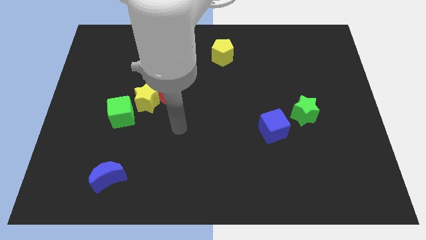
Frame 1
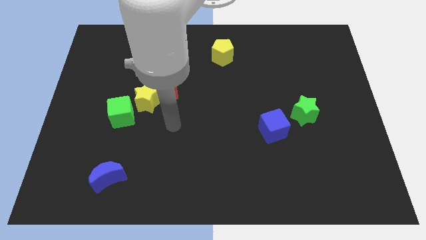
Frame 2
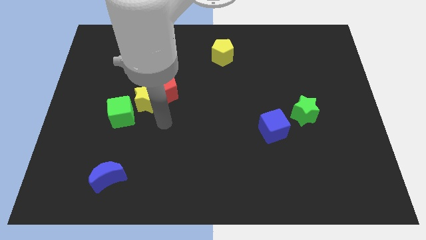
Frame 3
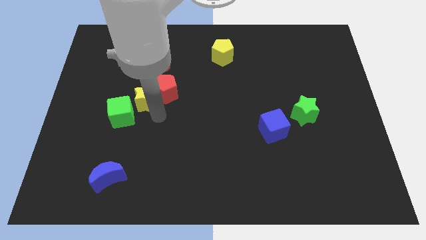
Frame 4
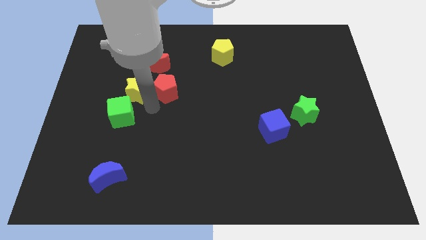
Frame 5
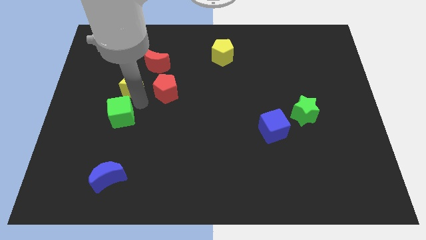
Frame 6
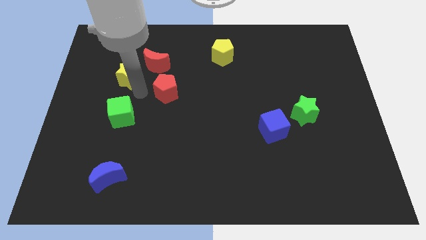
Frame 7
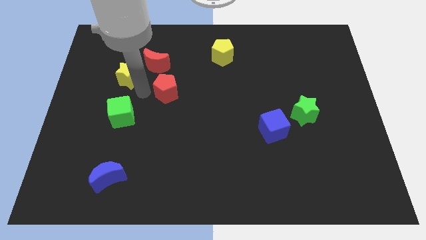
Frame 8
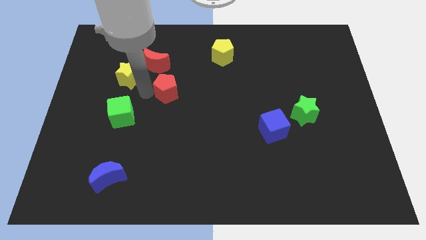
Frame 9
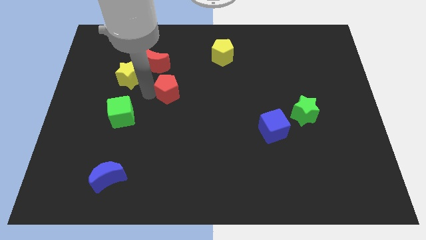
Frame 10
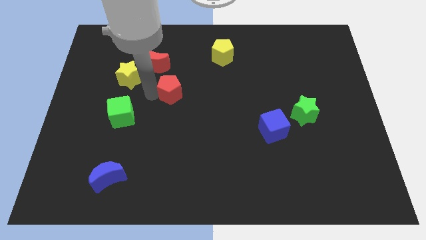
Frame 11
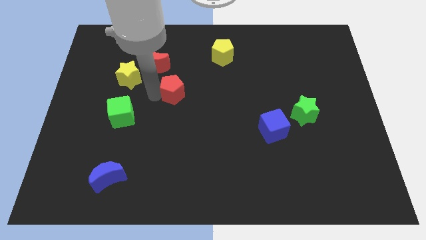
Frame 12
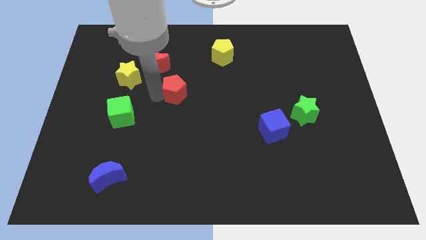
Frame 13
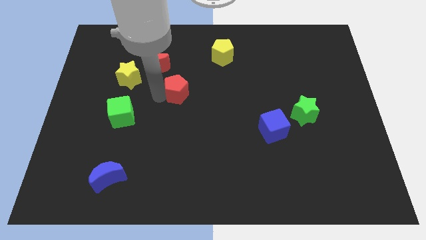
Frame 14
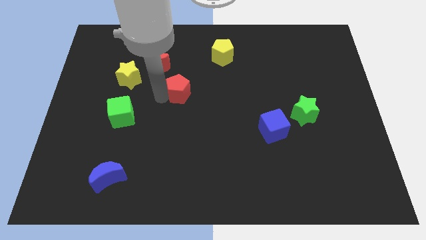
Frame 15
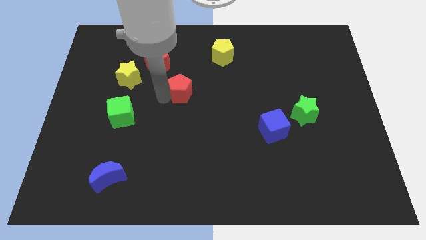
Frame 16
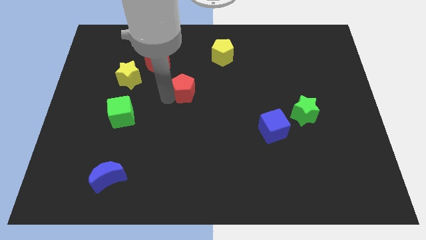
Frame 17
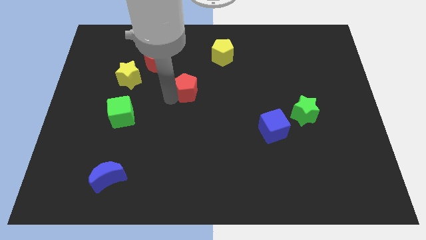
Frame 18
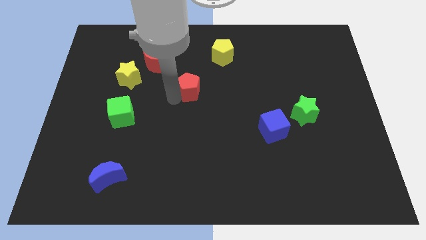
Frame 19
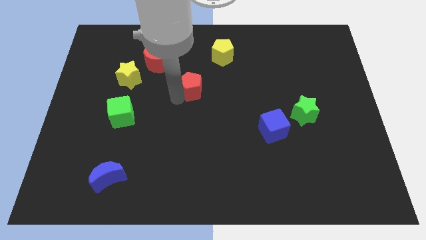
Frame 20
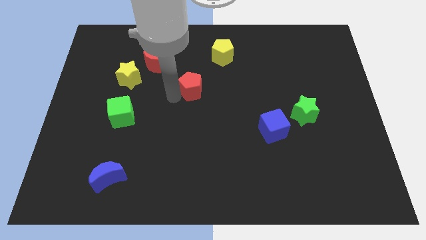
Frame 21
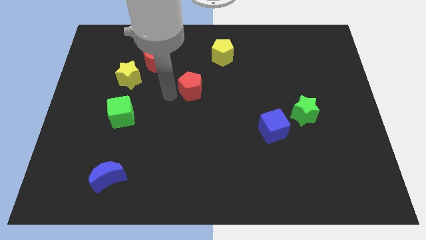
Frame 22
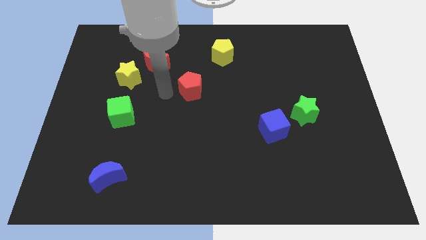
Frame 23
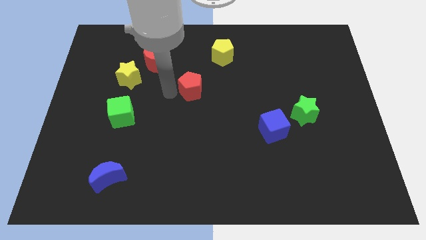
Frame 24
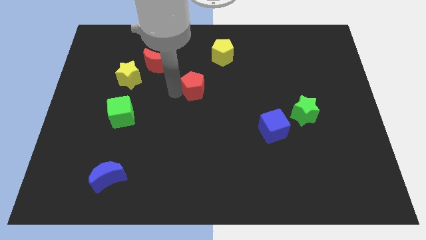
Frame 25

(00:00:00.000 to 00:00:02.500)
slide the red pentagon to the right a little bit

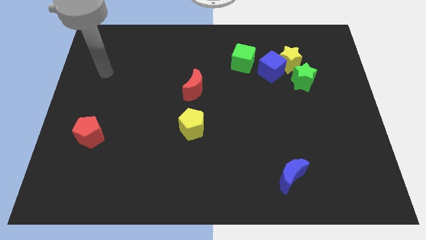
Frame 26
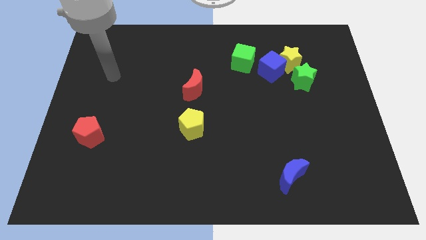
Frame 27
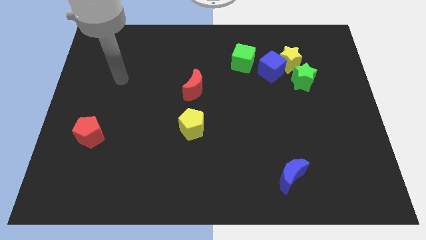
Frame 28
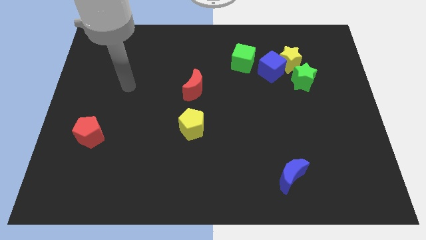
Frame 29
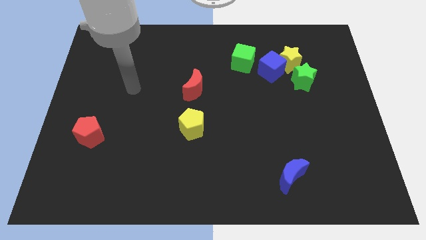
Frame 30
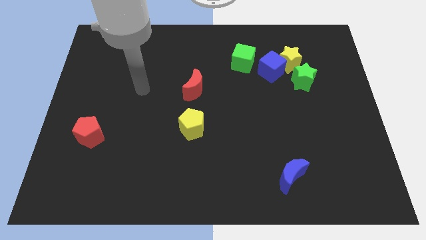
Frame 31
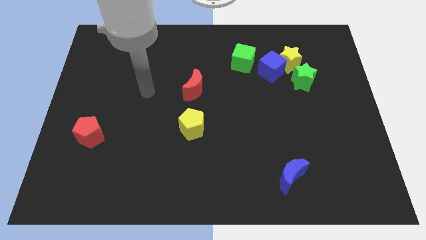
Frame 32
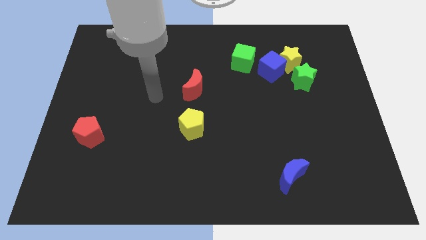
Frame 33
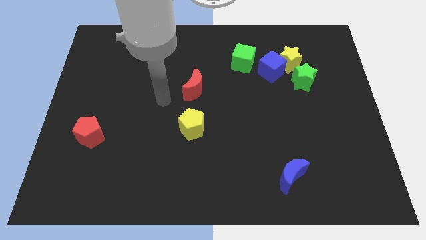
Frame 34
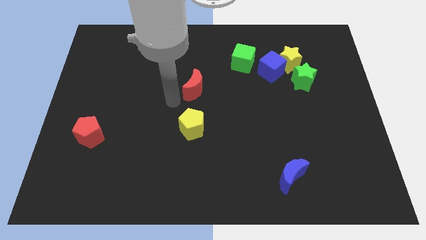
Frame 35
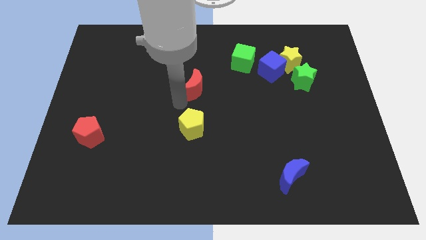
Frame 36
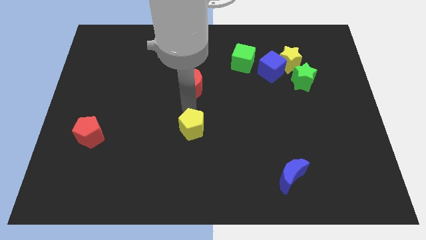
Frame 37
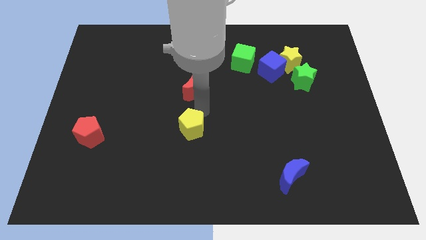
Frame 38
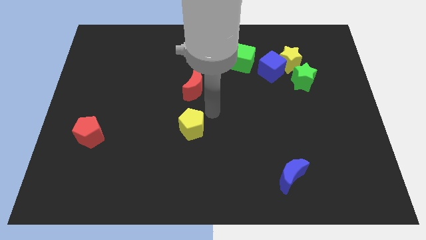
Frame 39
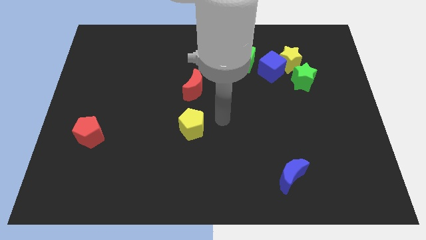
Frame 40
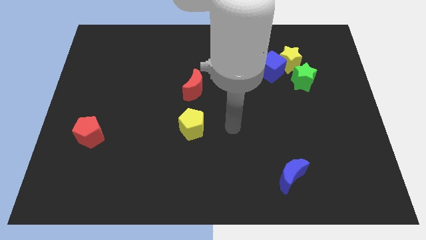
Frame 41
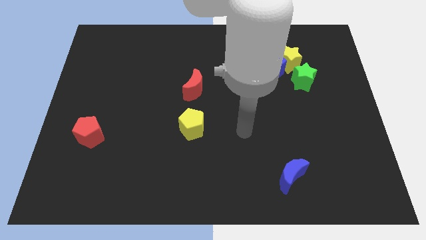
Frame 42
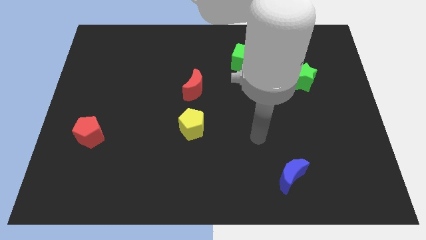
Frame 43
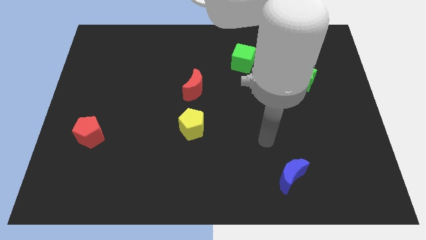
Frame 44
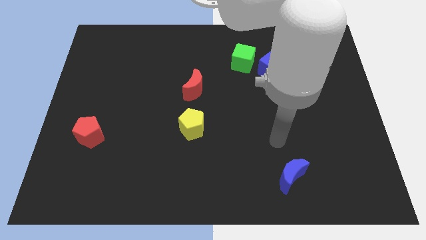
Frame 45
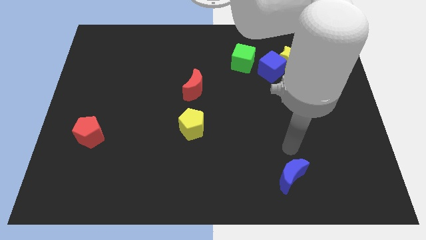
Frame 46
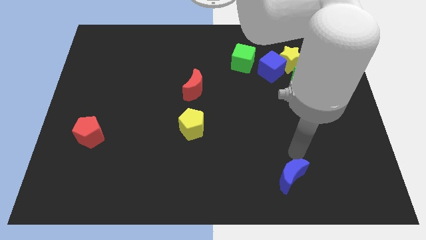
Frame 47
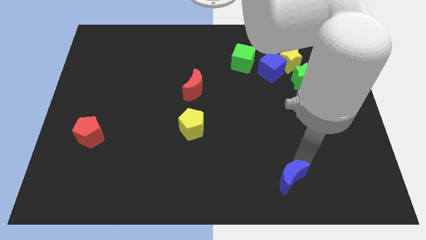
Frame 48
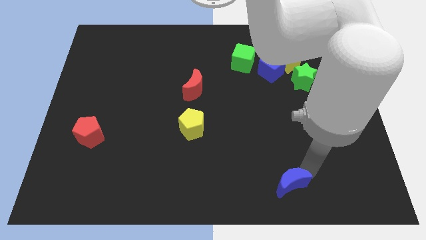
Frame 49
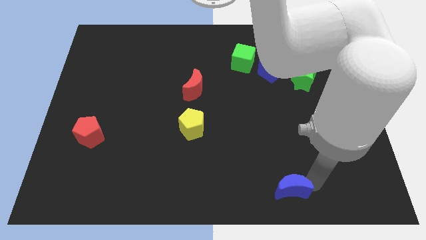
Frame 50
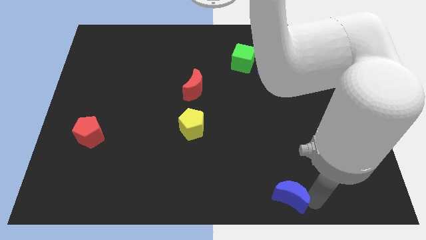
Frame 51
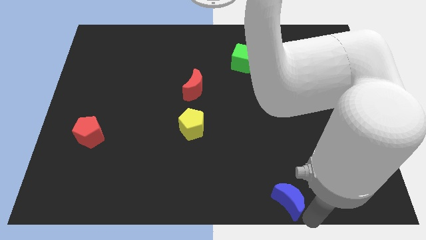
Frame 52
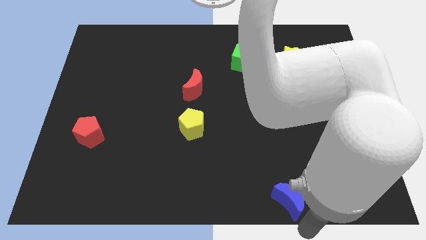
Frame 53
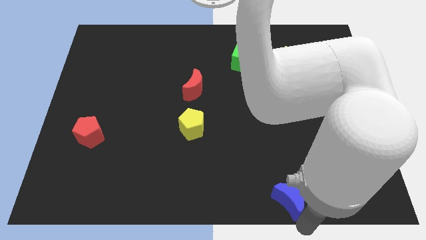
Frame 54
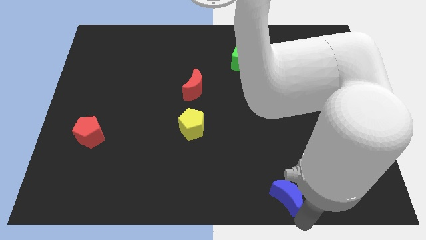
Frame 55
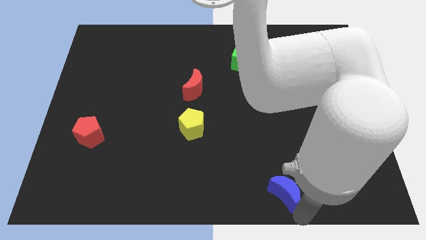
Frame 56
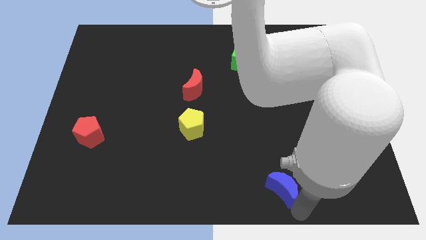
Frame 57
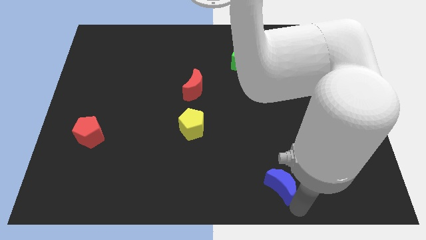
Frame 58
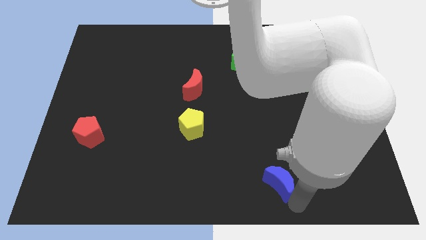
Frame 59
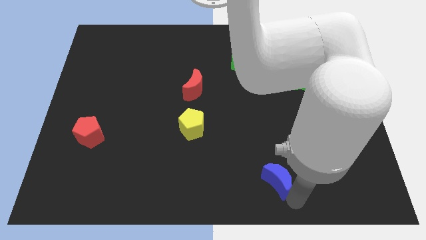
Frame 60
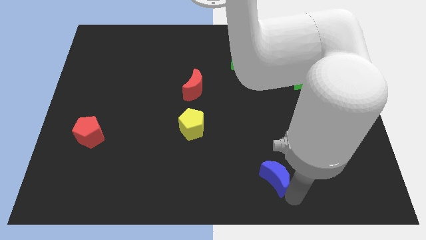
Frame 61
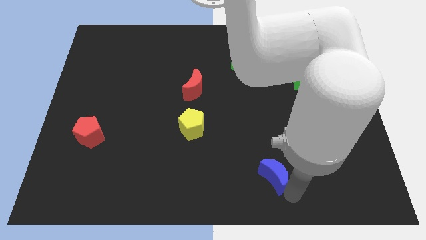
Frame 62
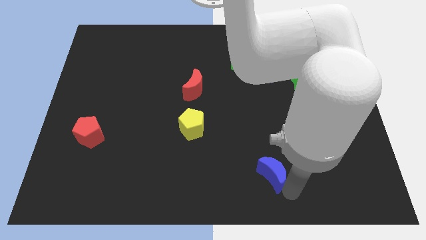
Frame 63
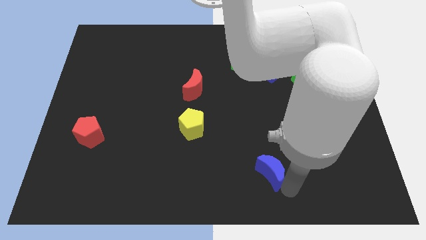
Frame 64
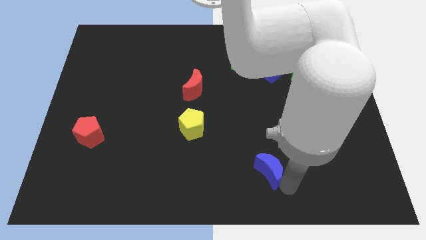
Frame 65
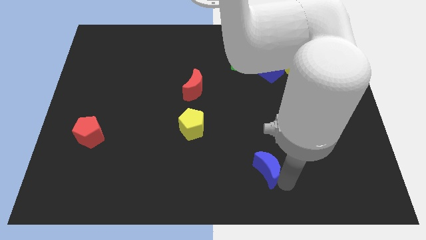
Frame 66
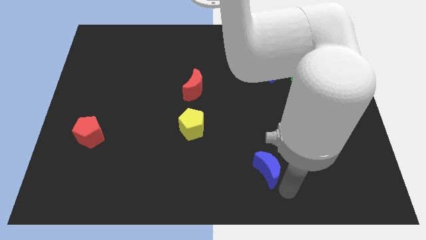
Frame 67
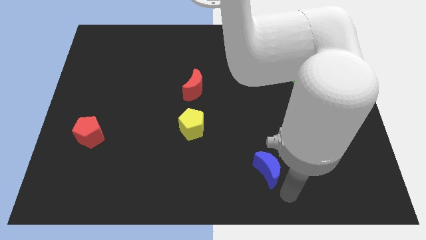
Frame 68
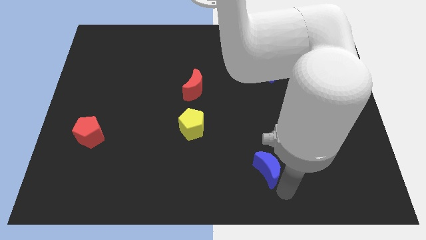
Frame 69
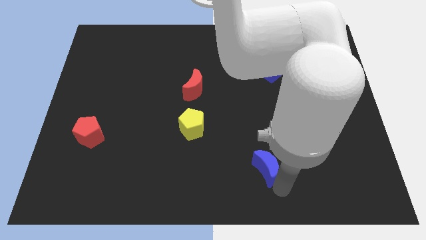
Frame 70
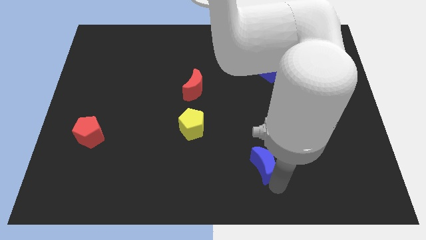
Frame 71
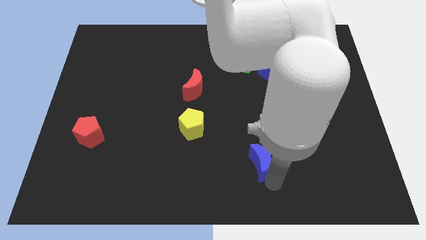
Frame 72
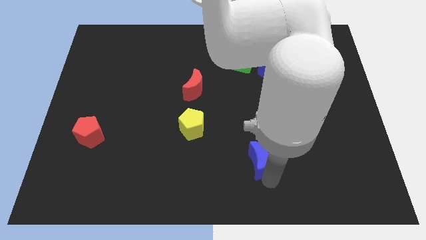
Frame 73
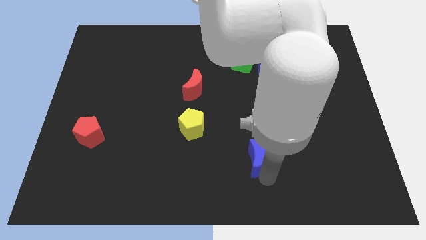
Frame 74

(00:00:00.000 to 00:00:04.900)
slide the blue moon a little up and to the left

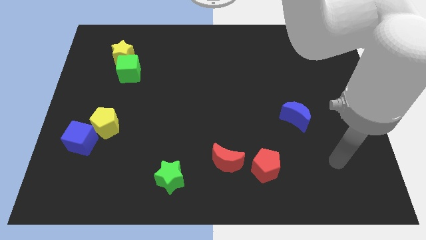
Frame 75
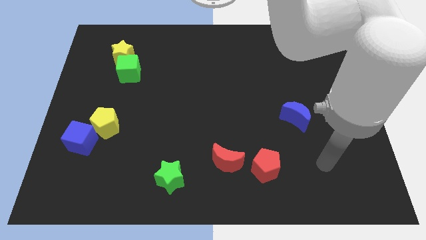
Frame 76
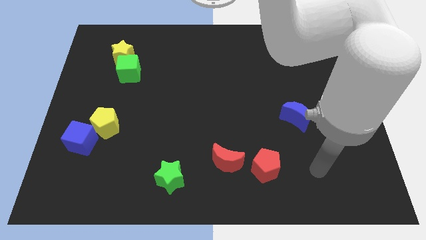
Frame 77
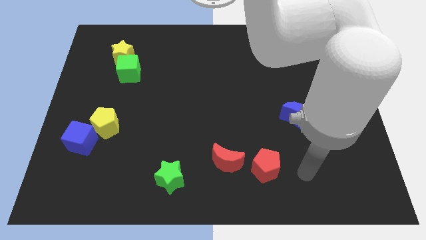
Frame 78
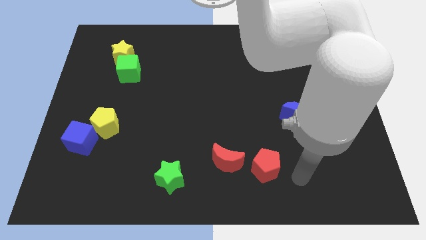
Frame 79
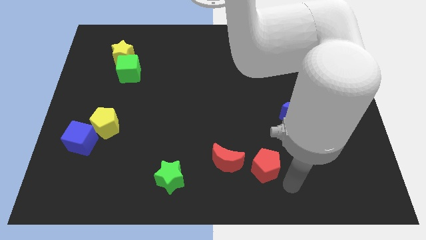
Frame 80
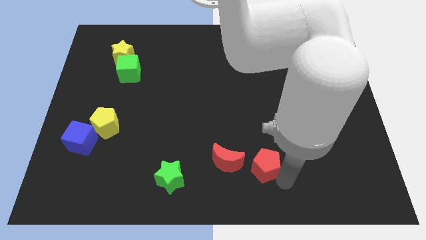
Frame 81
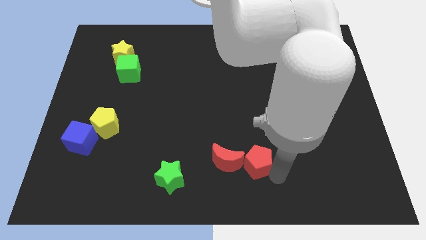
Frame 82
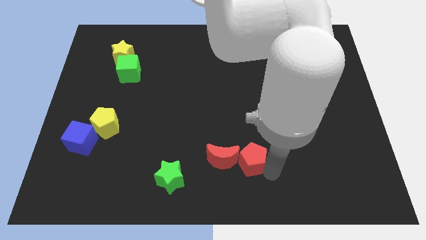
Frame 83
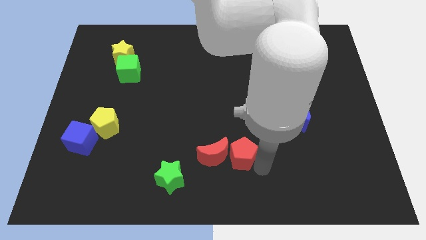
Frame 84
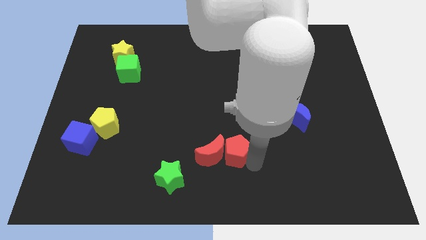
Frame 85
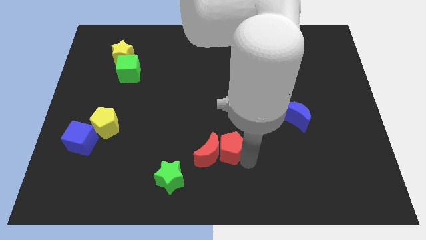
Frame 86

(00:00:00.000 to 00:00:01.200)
move the red pentagon somewhat up and left
